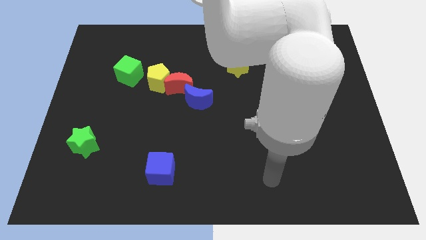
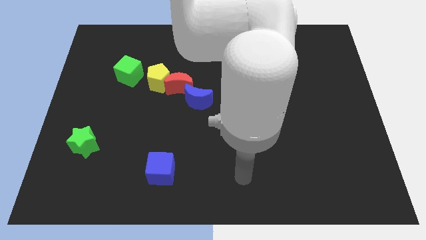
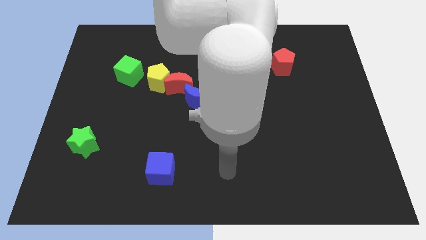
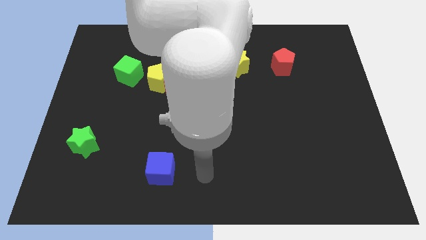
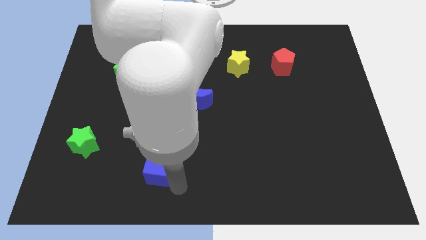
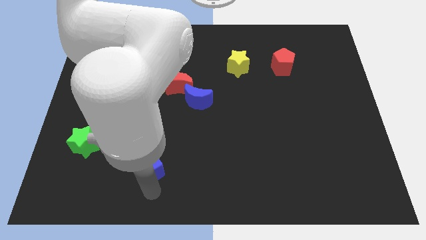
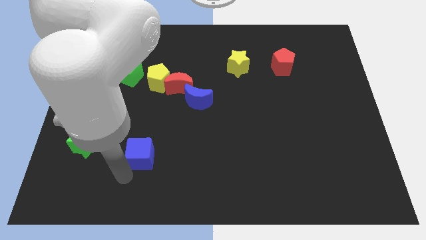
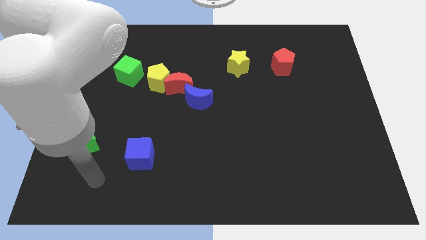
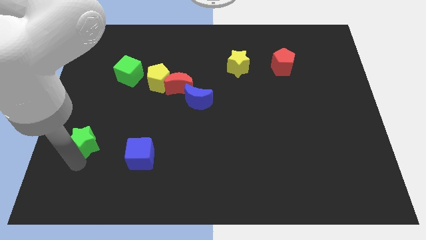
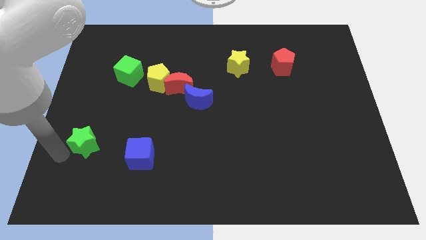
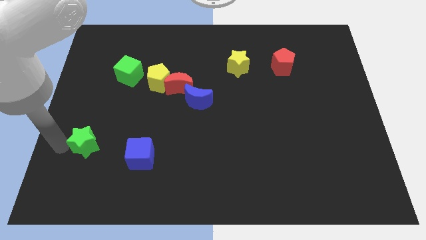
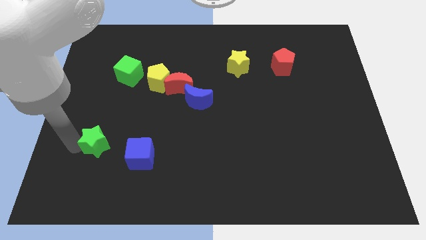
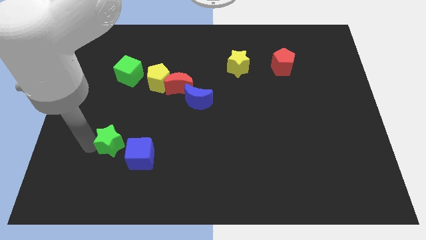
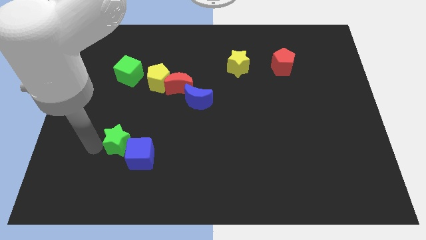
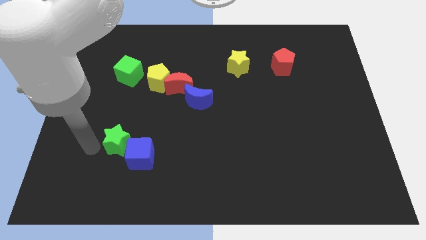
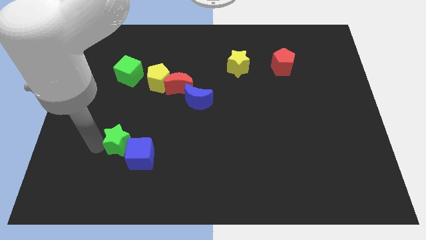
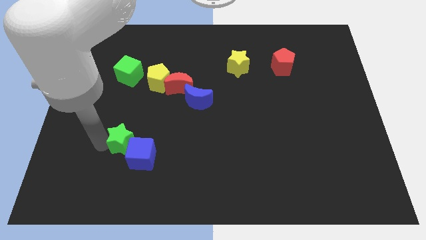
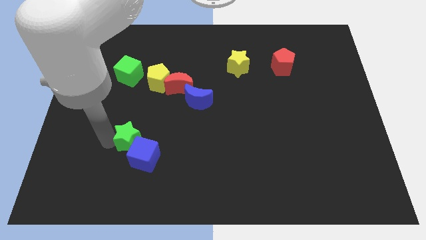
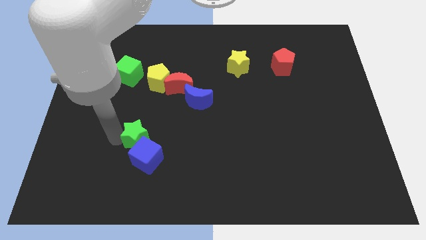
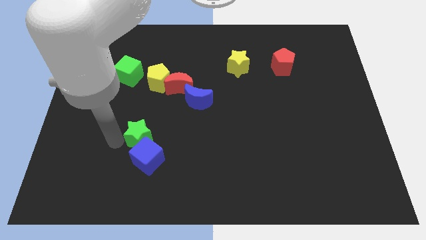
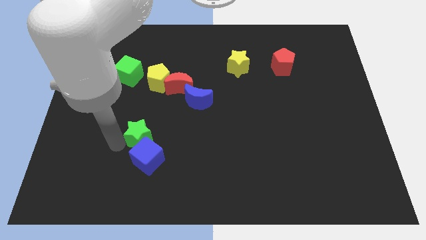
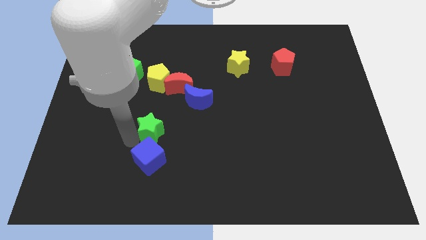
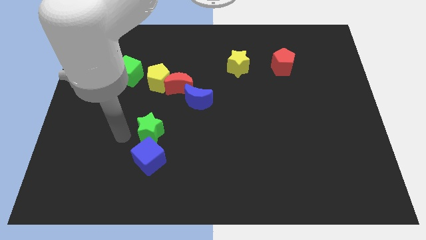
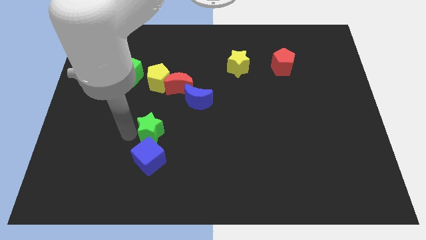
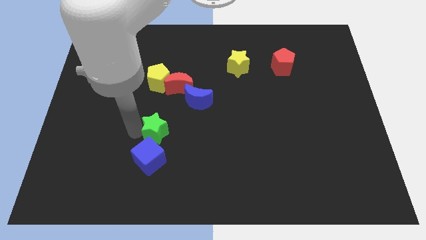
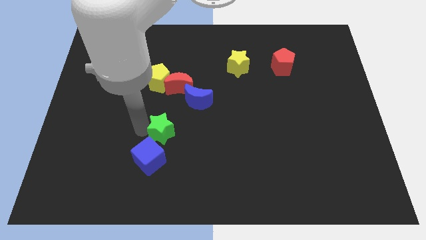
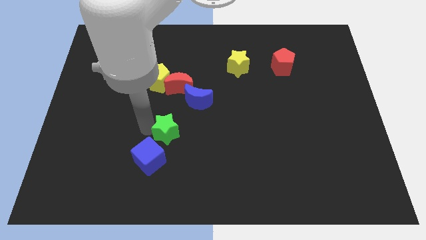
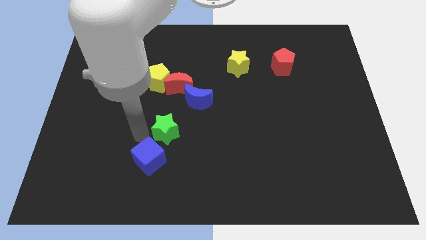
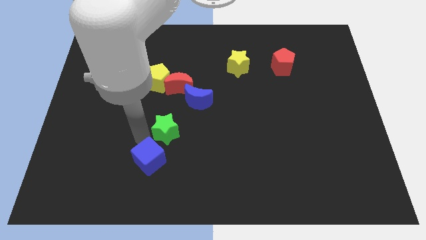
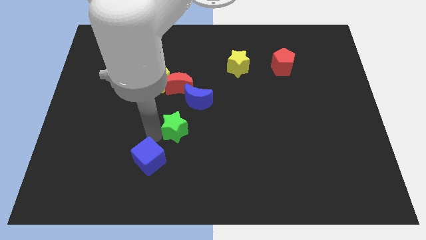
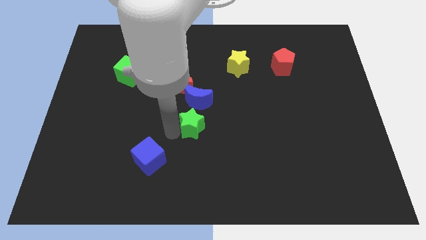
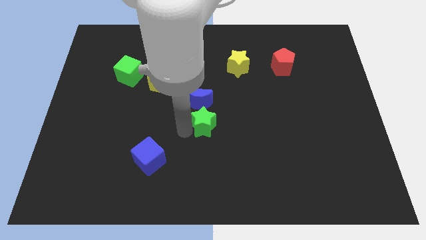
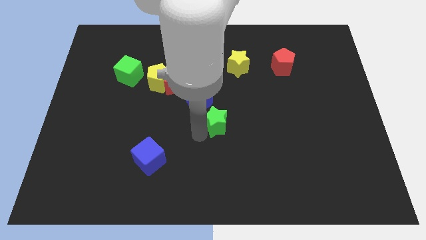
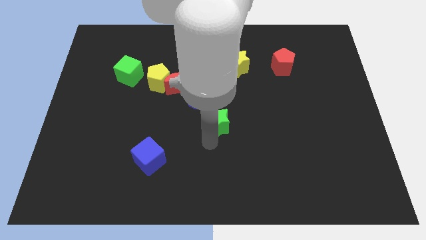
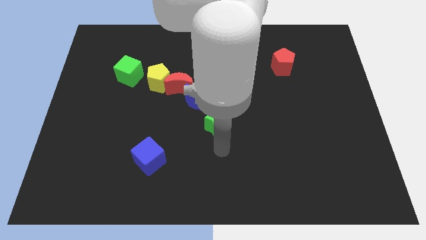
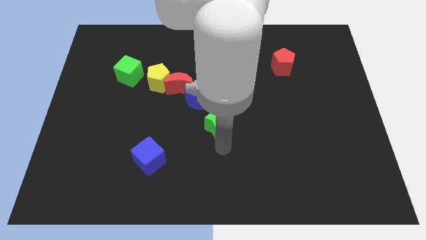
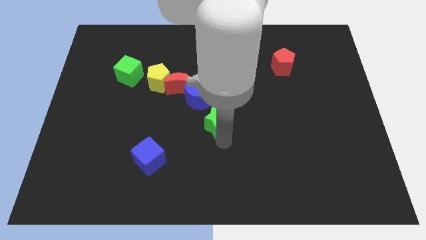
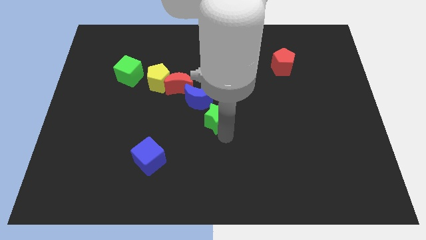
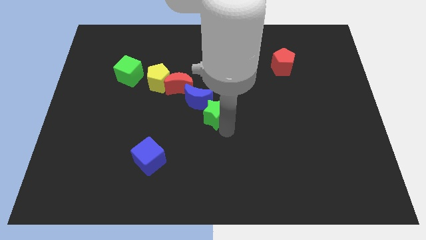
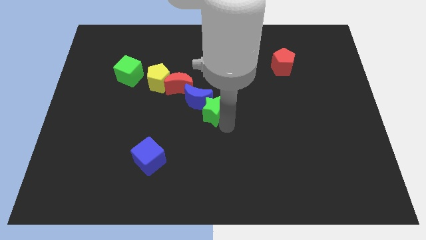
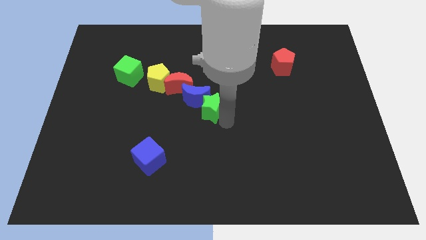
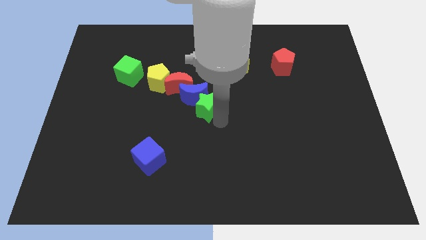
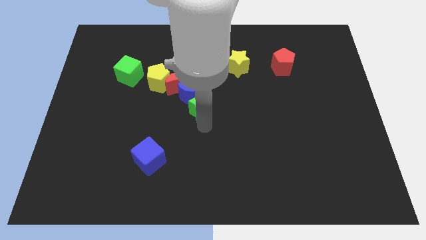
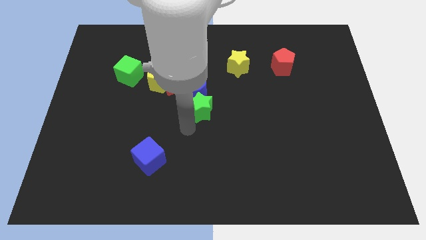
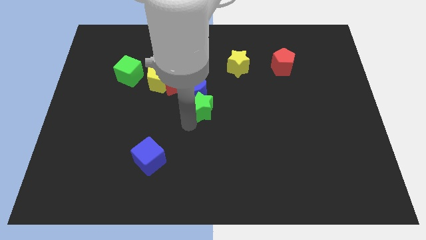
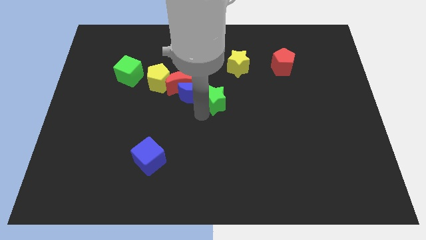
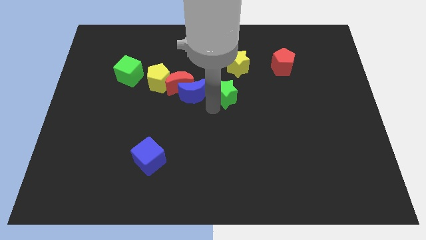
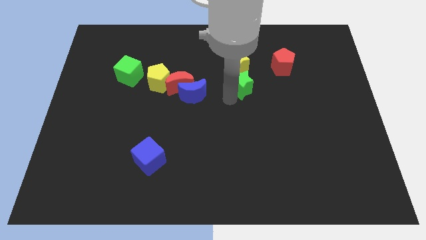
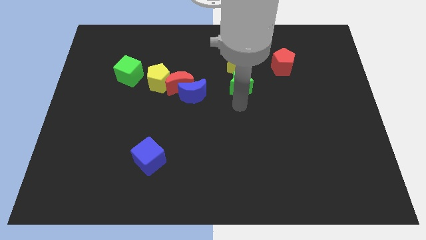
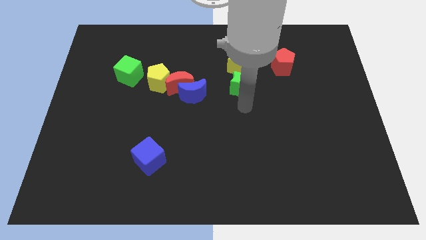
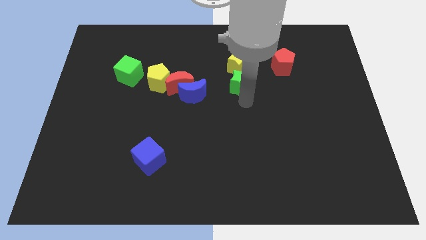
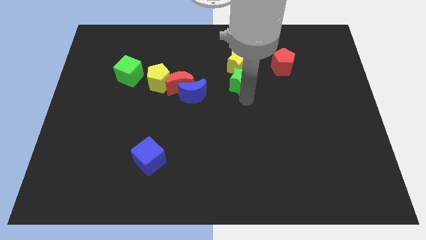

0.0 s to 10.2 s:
put the green star to the yellow star

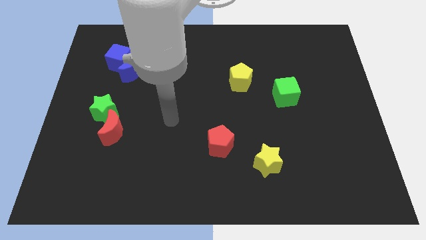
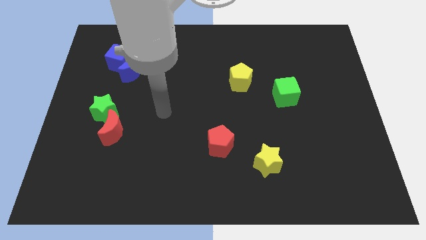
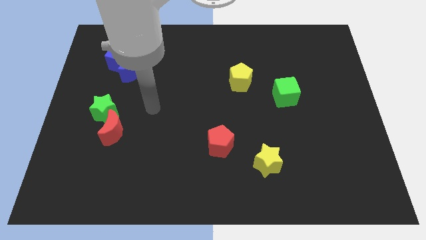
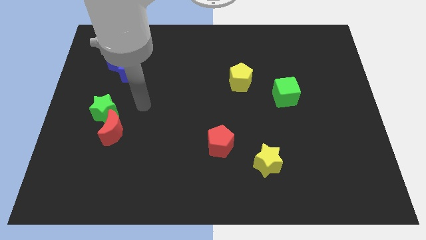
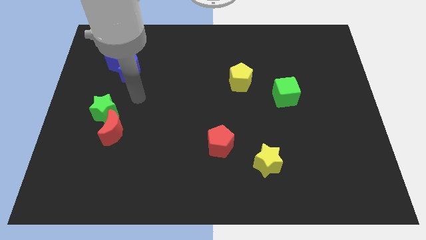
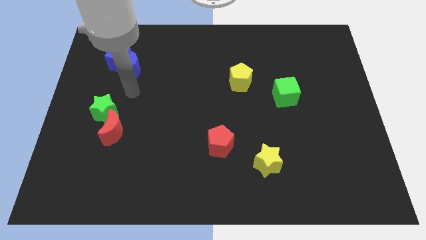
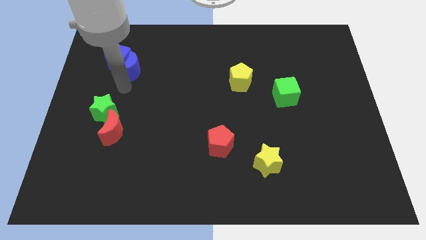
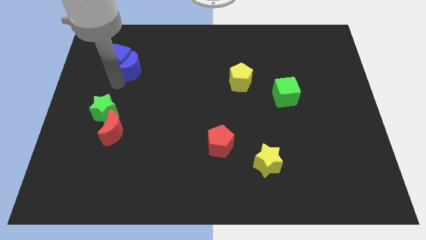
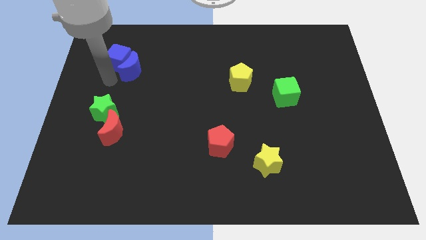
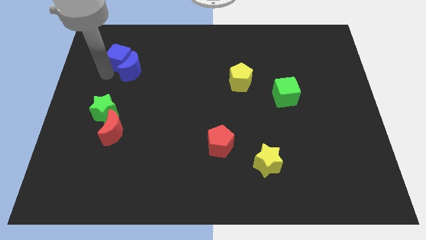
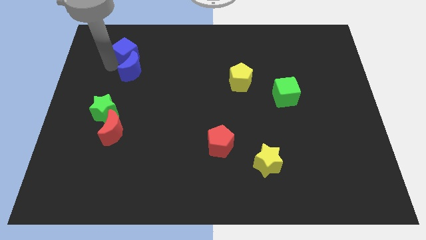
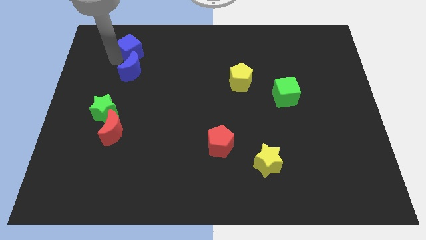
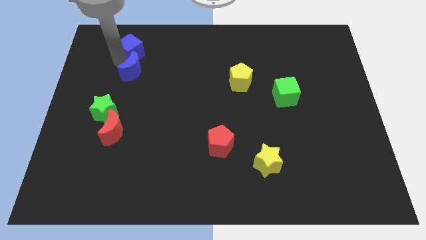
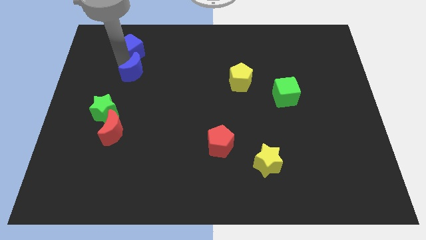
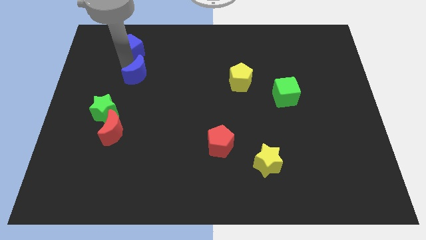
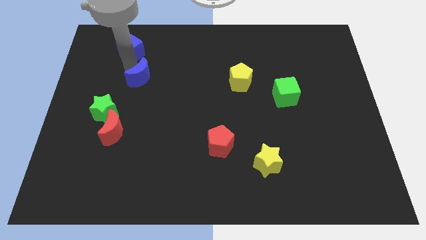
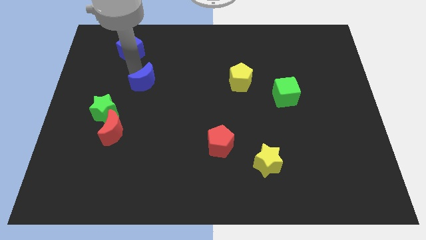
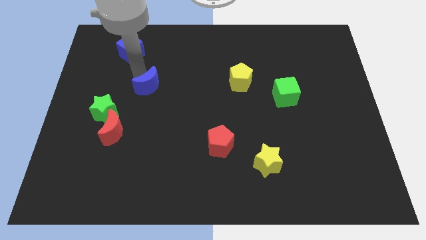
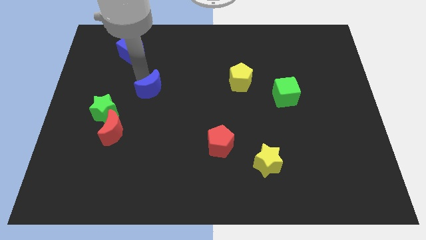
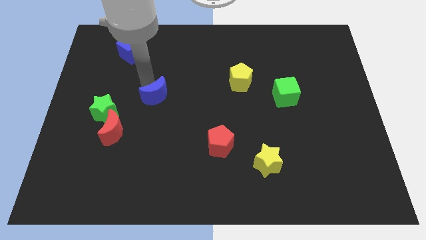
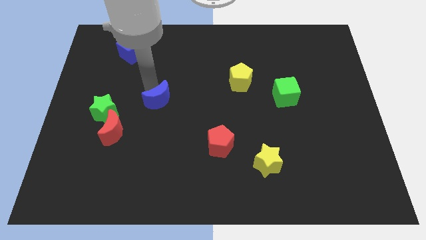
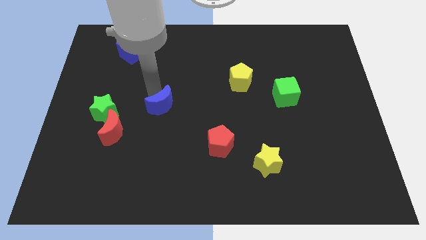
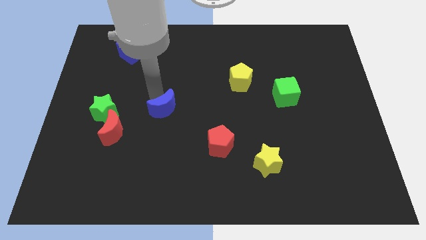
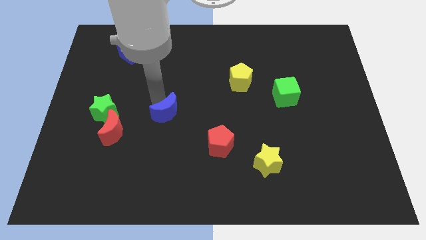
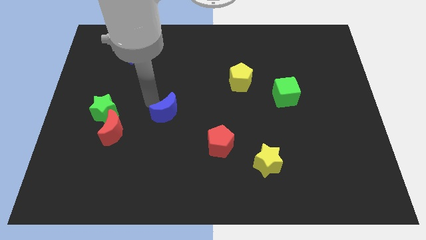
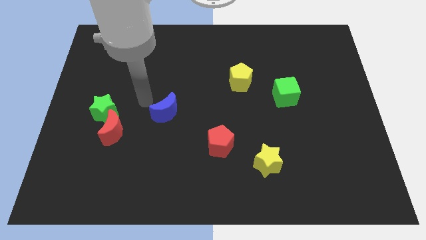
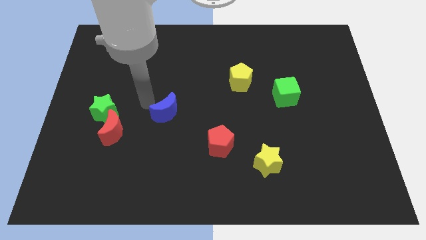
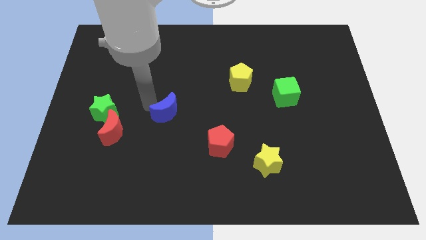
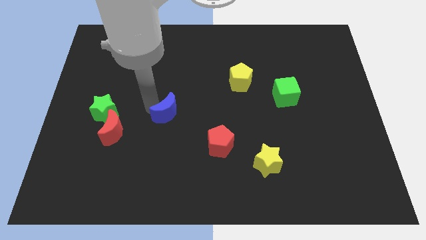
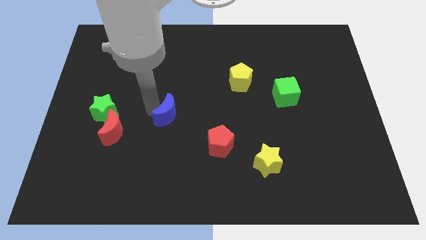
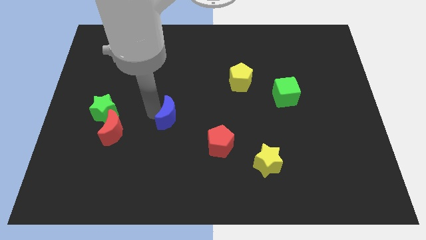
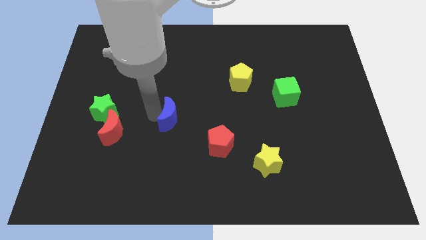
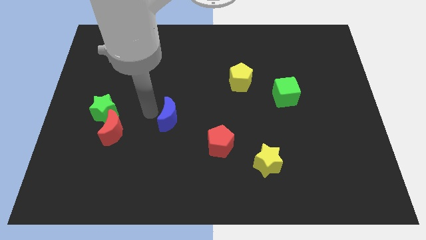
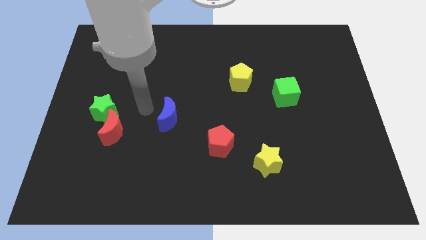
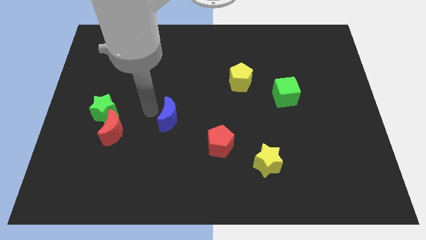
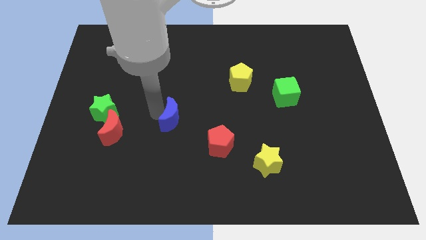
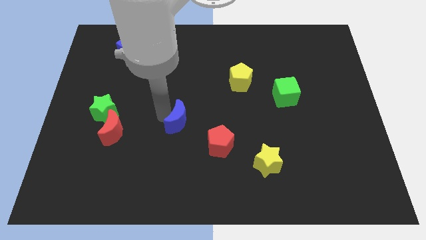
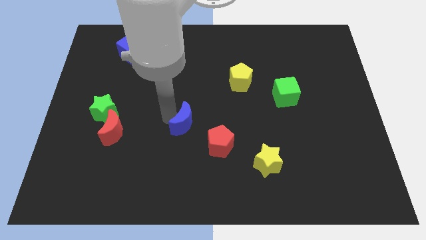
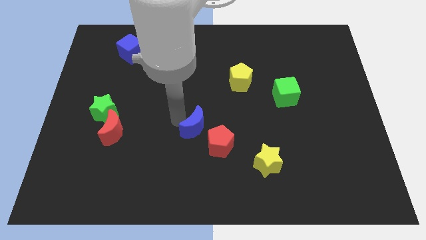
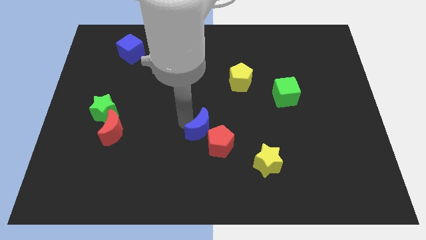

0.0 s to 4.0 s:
move the blue moon next to the red pentagon
